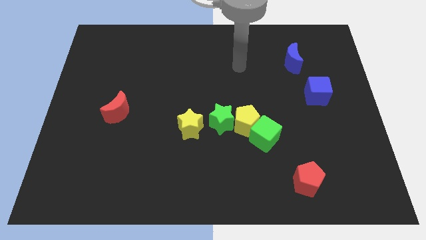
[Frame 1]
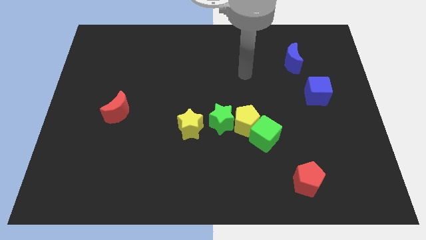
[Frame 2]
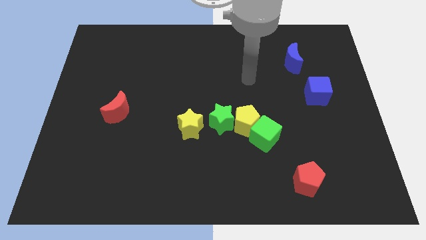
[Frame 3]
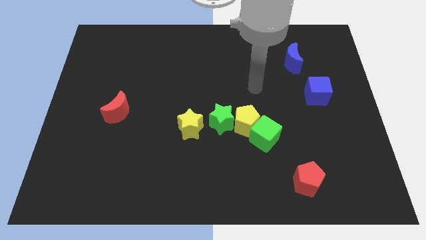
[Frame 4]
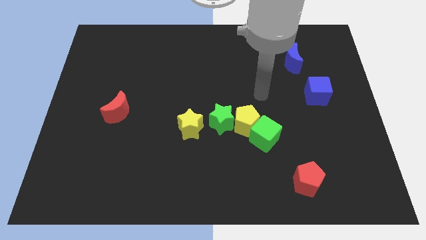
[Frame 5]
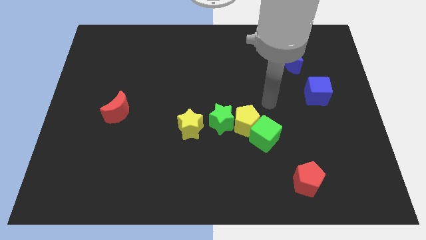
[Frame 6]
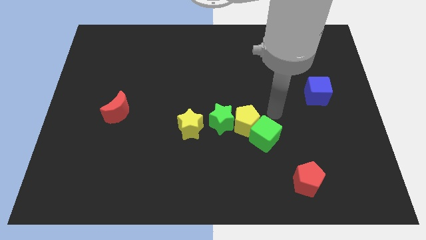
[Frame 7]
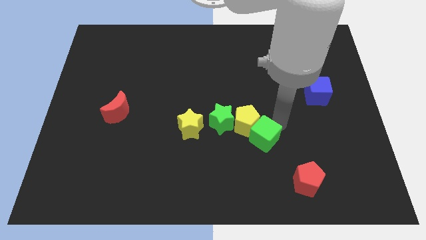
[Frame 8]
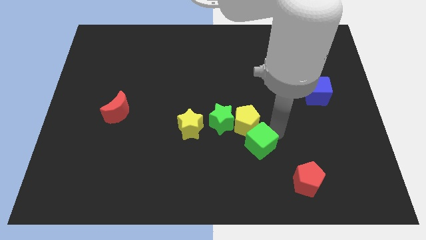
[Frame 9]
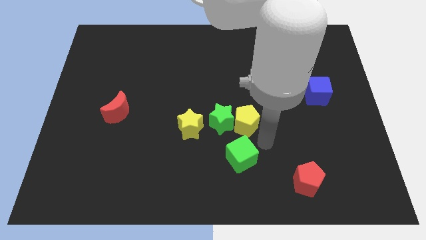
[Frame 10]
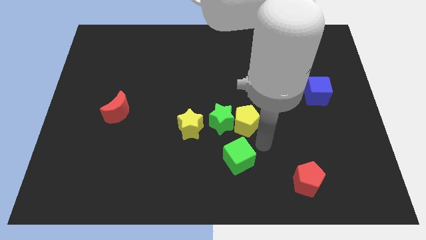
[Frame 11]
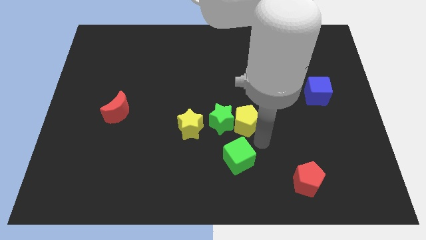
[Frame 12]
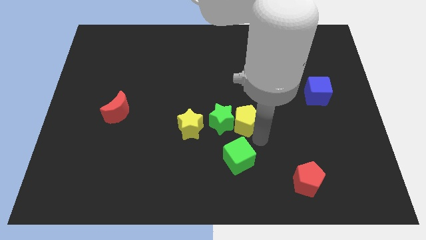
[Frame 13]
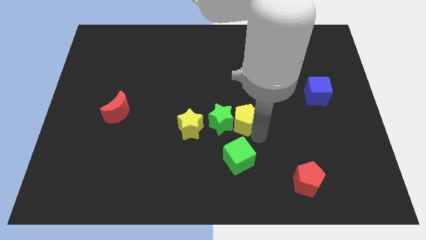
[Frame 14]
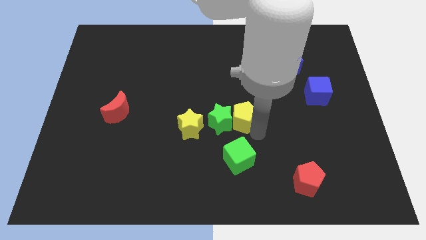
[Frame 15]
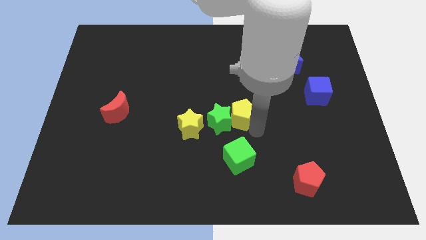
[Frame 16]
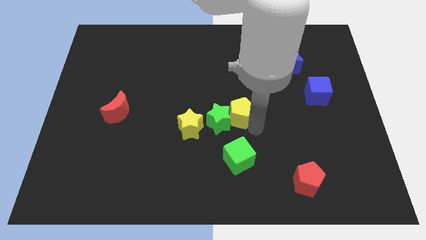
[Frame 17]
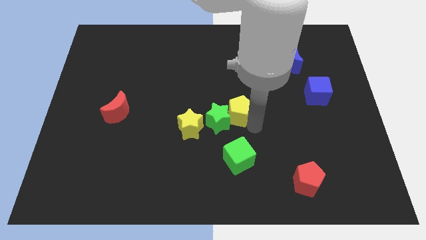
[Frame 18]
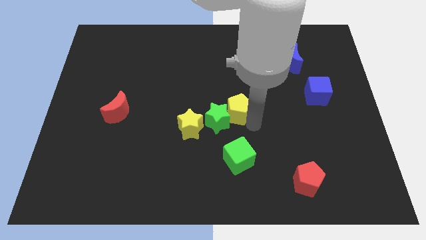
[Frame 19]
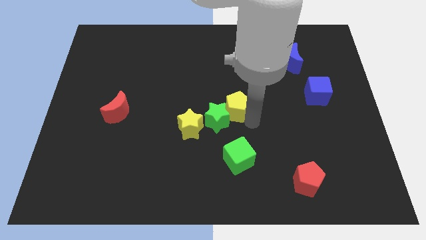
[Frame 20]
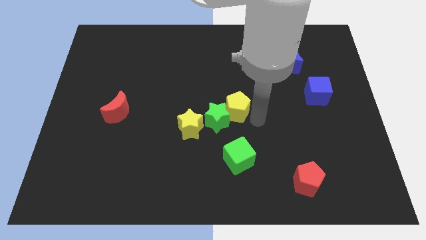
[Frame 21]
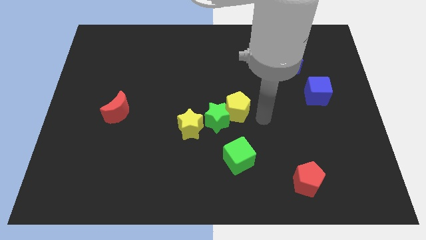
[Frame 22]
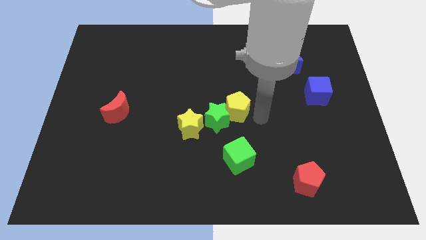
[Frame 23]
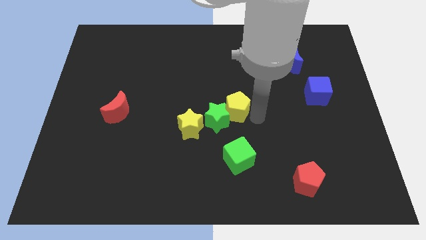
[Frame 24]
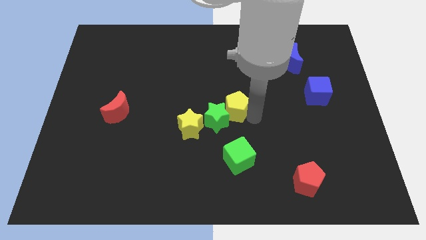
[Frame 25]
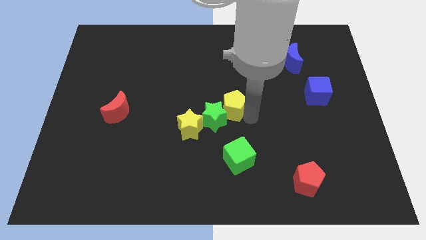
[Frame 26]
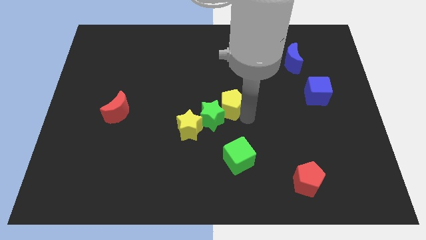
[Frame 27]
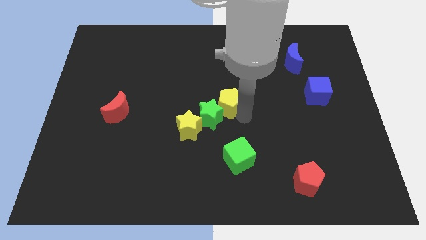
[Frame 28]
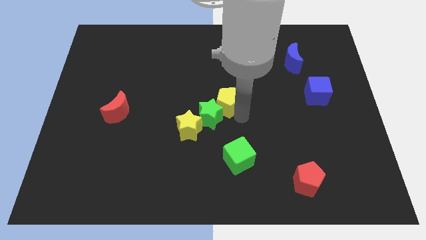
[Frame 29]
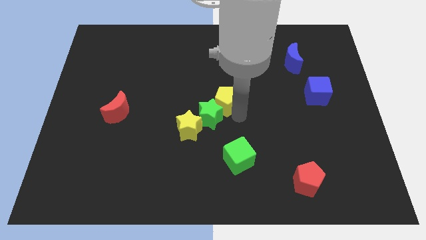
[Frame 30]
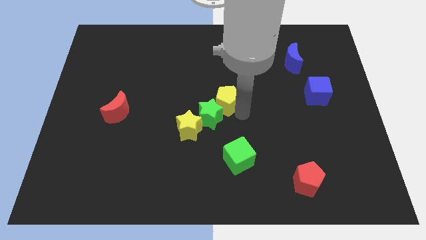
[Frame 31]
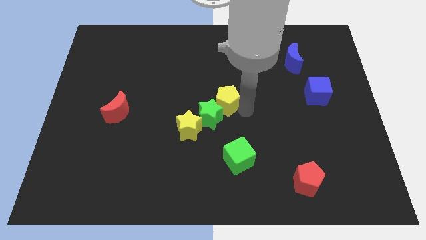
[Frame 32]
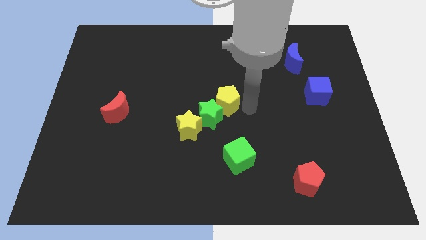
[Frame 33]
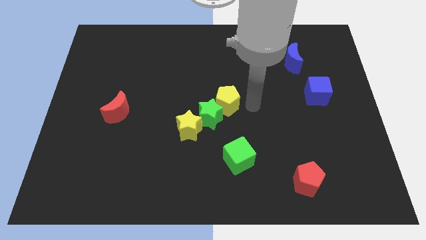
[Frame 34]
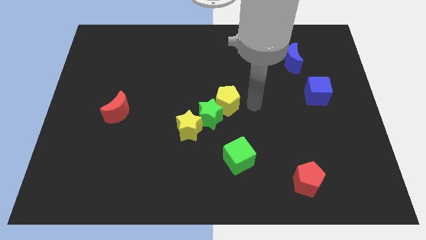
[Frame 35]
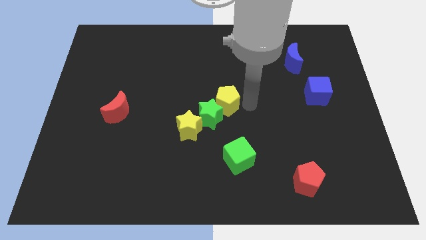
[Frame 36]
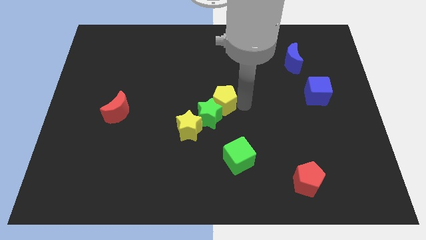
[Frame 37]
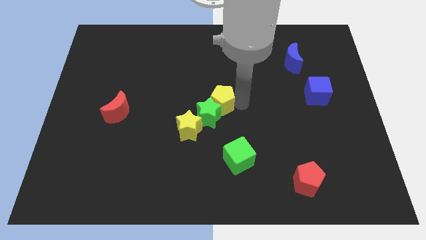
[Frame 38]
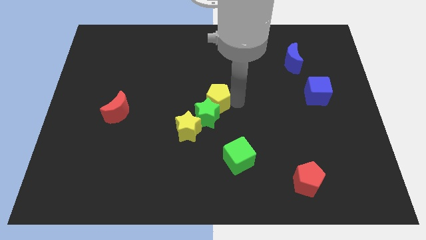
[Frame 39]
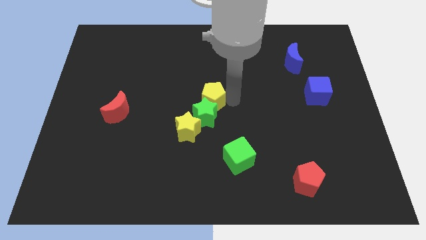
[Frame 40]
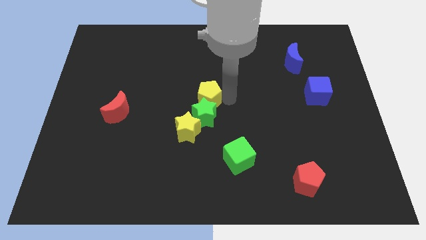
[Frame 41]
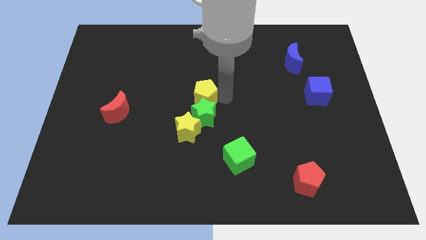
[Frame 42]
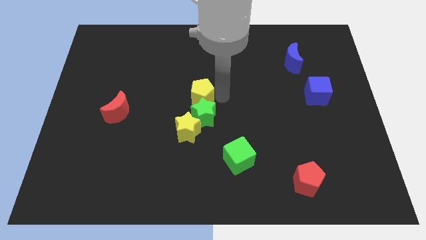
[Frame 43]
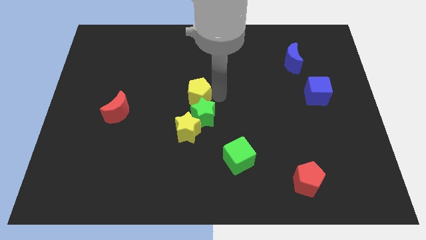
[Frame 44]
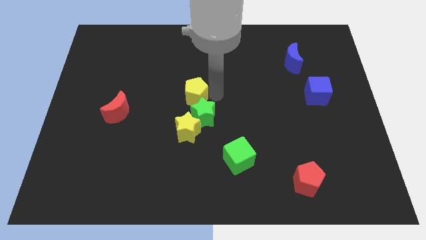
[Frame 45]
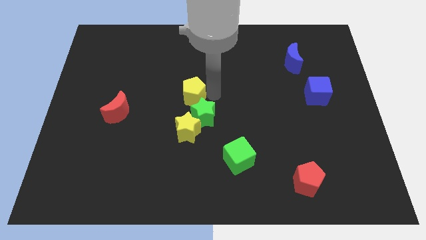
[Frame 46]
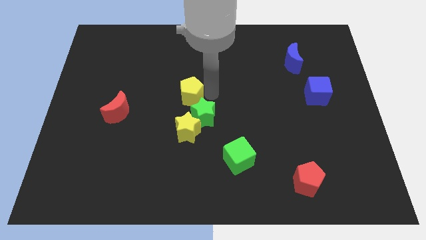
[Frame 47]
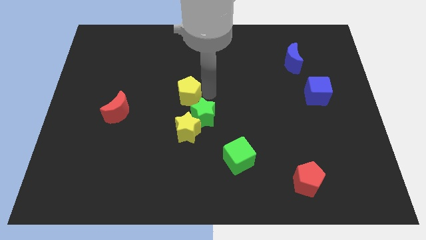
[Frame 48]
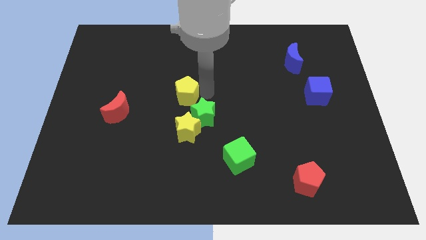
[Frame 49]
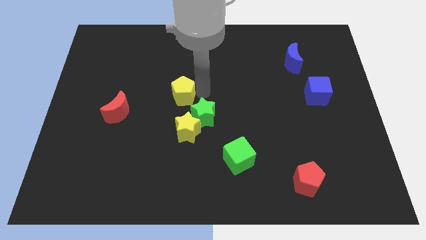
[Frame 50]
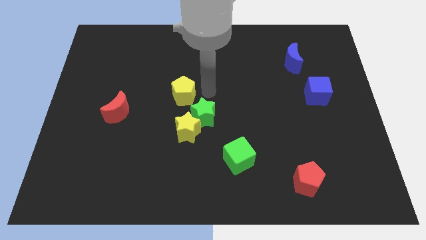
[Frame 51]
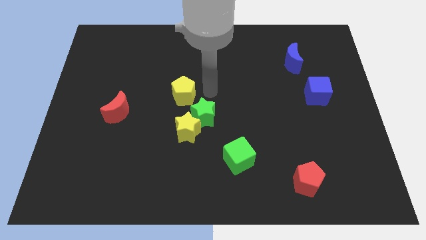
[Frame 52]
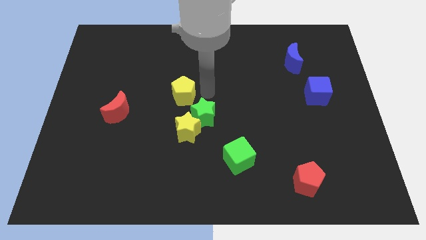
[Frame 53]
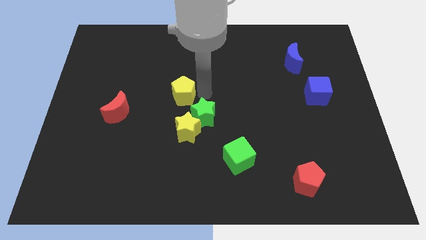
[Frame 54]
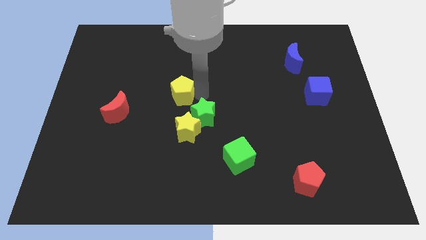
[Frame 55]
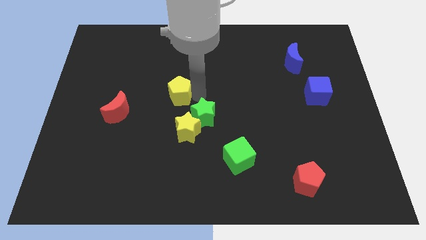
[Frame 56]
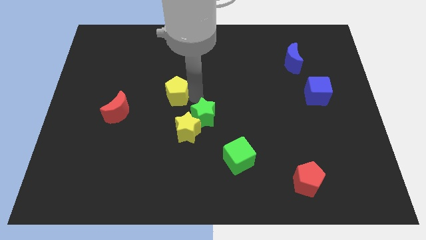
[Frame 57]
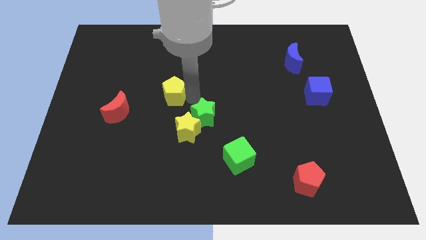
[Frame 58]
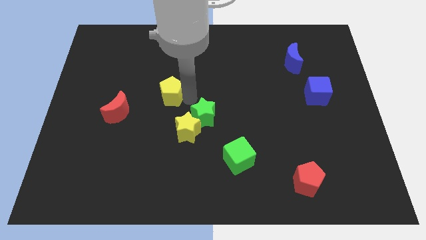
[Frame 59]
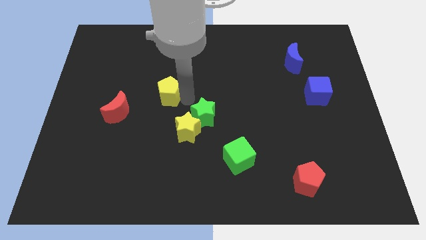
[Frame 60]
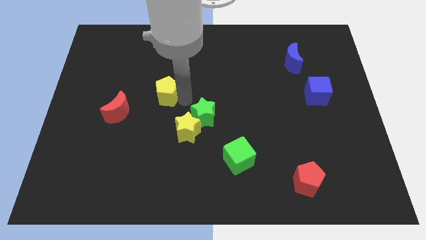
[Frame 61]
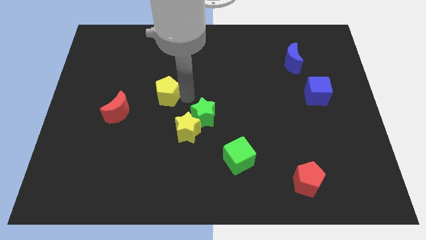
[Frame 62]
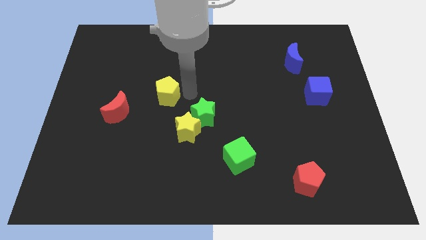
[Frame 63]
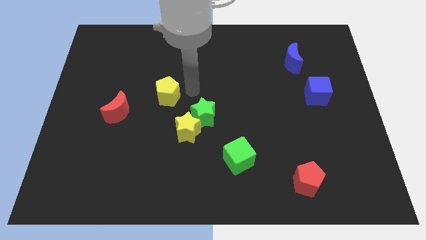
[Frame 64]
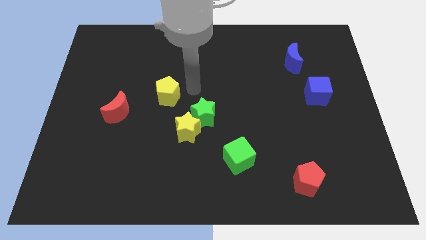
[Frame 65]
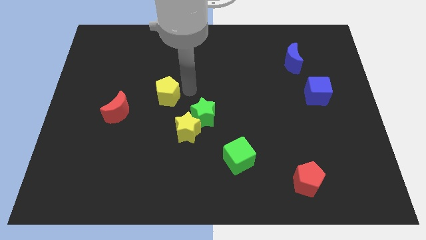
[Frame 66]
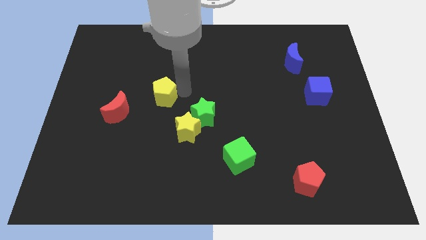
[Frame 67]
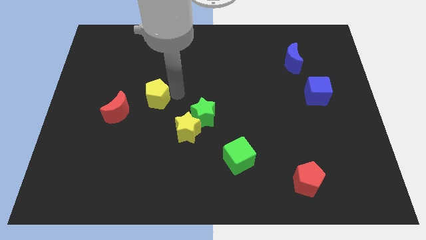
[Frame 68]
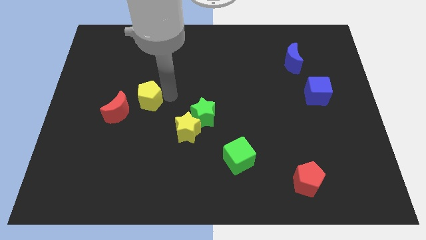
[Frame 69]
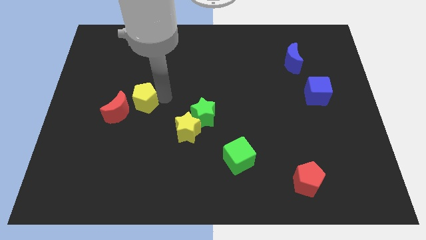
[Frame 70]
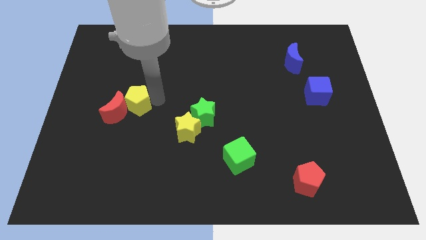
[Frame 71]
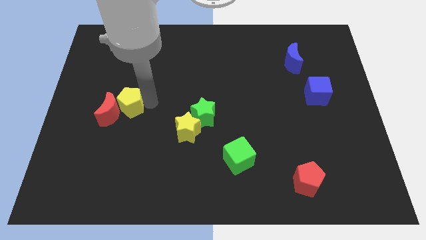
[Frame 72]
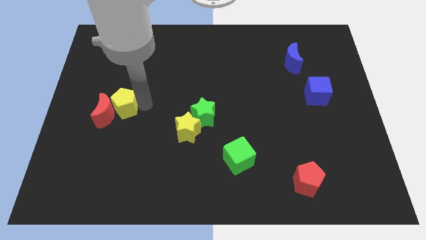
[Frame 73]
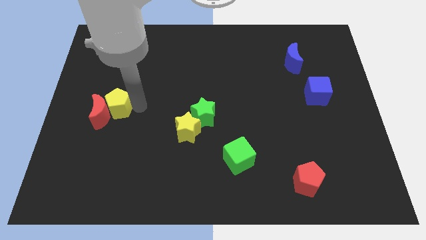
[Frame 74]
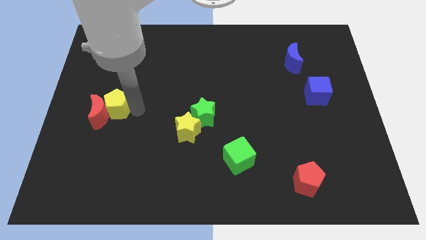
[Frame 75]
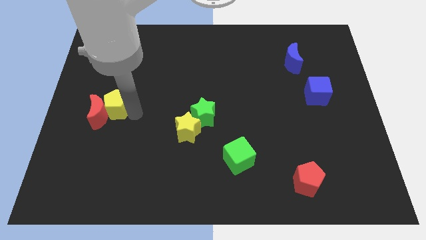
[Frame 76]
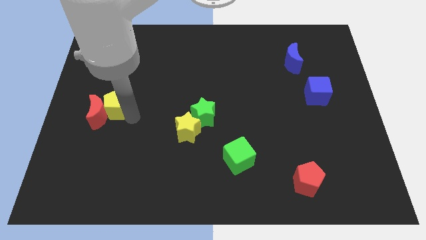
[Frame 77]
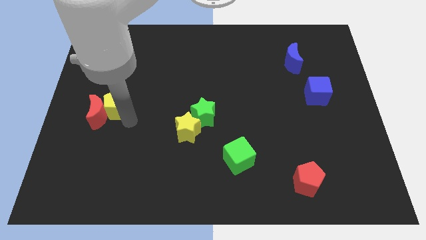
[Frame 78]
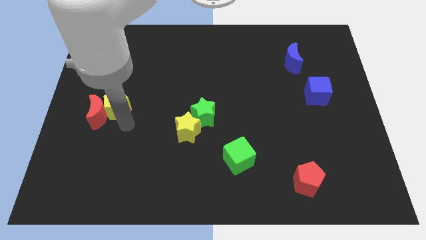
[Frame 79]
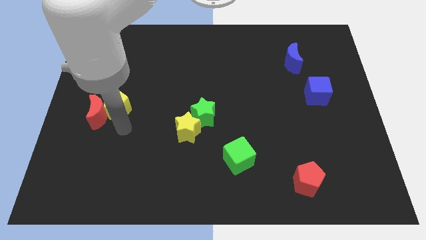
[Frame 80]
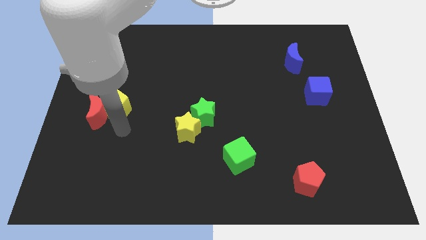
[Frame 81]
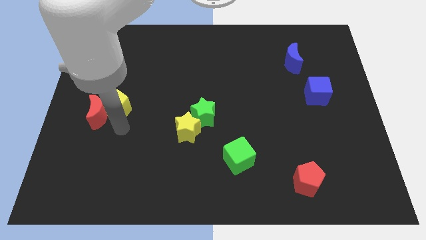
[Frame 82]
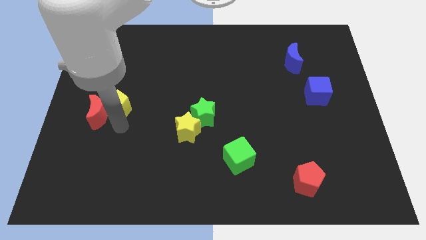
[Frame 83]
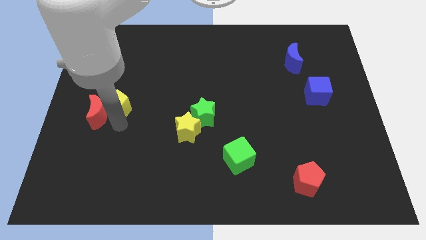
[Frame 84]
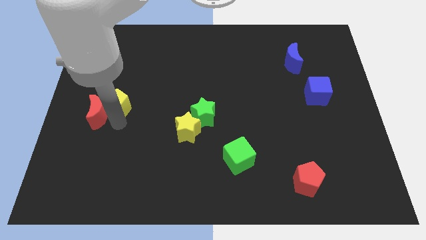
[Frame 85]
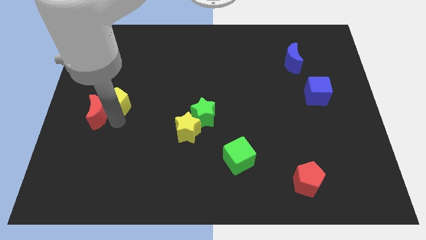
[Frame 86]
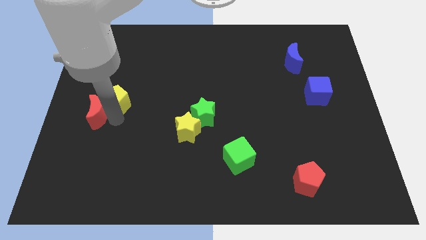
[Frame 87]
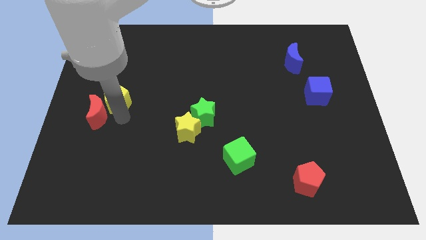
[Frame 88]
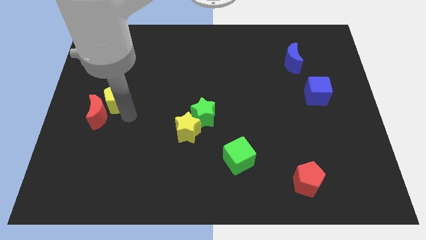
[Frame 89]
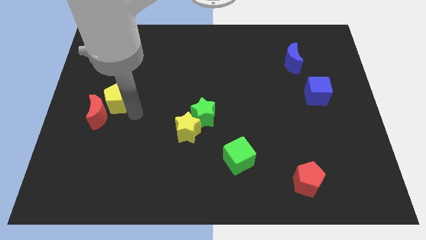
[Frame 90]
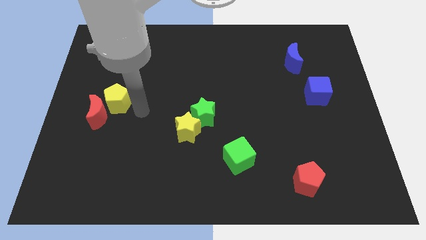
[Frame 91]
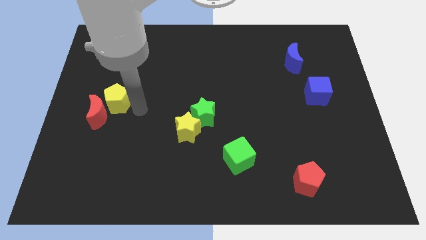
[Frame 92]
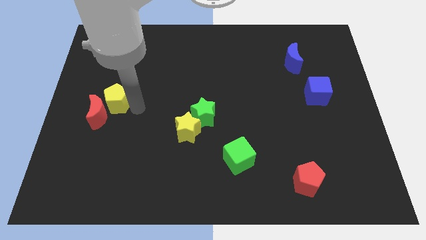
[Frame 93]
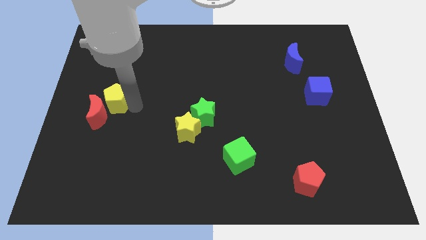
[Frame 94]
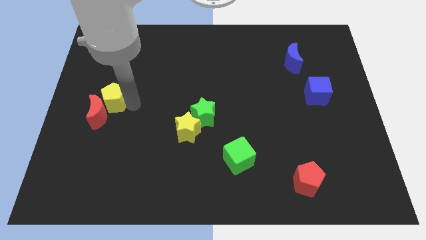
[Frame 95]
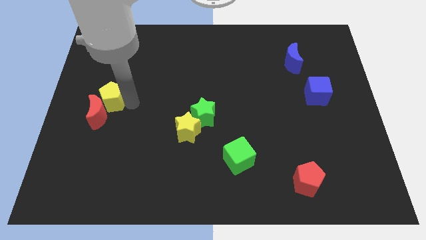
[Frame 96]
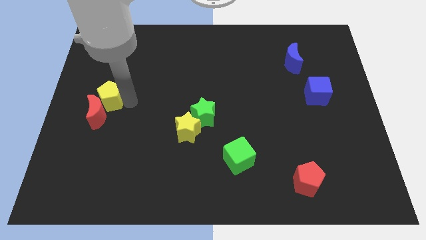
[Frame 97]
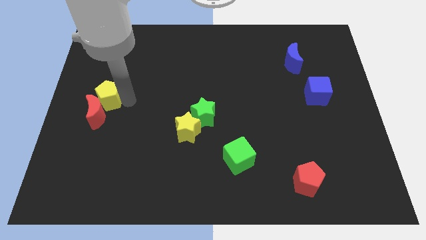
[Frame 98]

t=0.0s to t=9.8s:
push the yellow pentagon to the left side of the board
